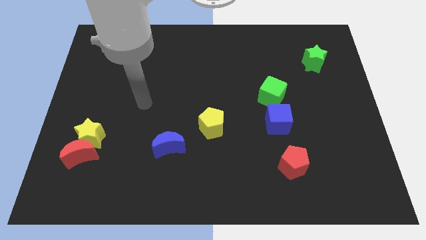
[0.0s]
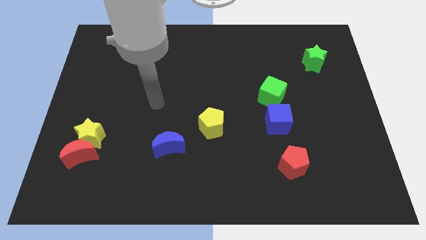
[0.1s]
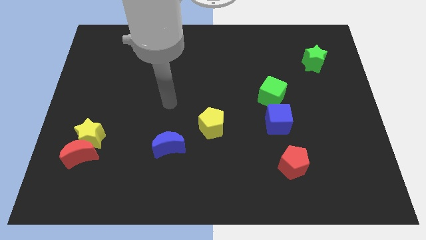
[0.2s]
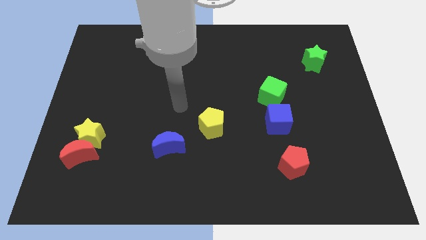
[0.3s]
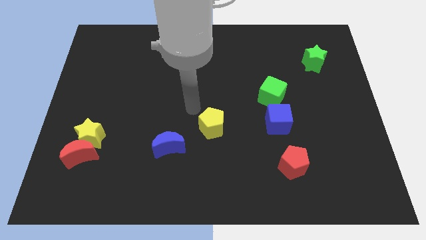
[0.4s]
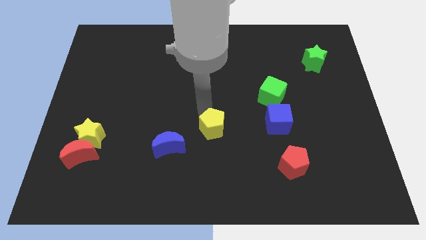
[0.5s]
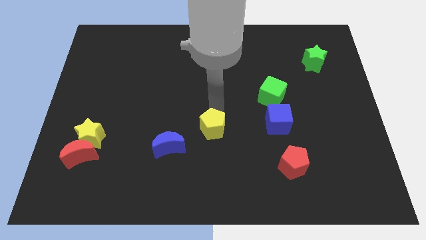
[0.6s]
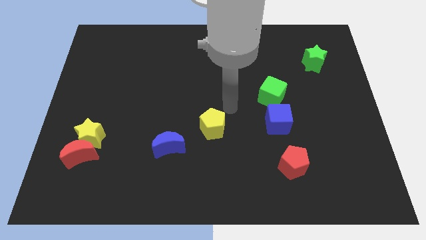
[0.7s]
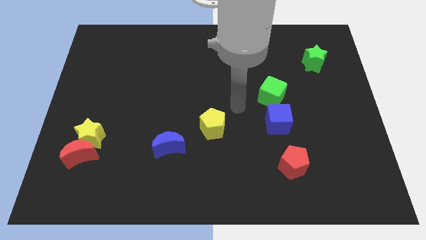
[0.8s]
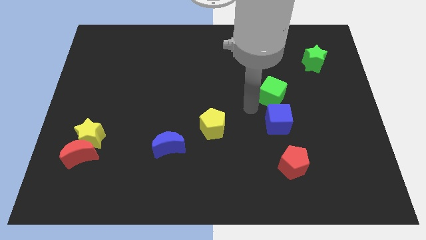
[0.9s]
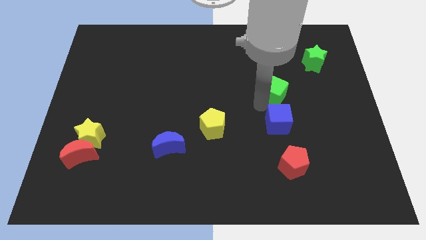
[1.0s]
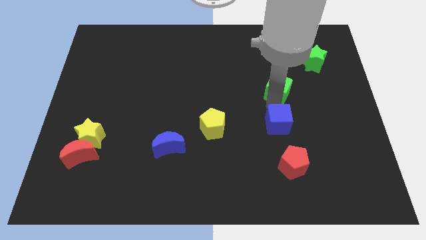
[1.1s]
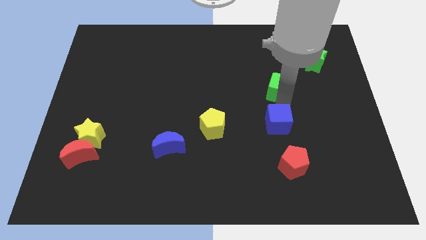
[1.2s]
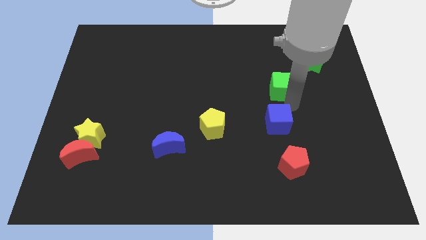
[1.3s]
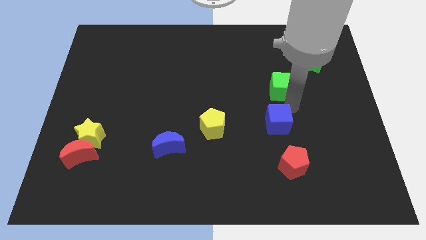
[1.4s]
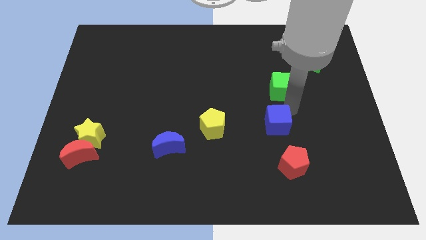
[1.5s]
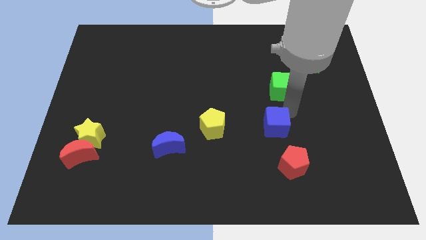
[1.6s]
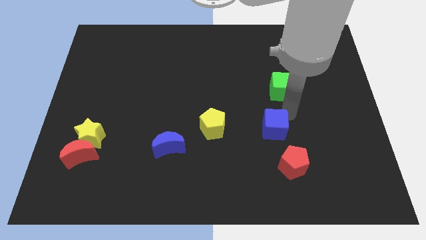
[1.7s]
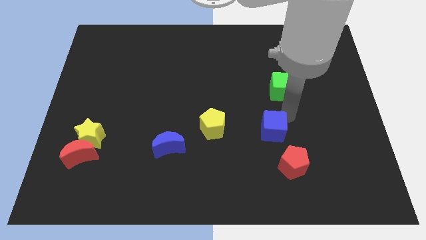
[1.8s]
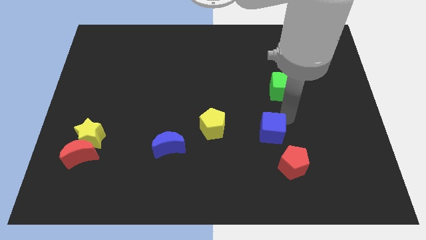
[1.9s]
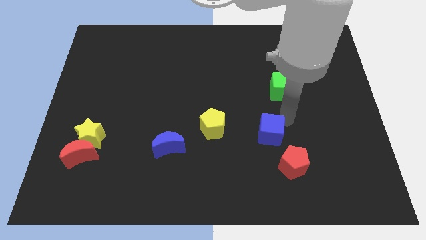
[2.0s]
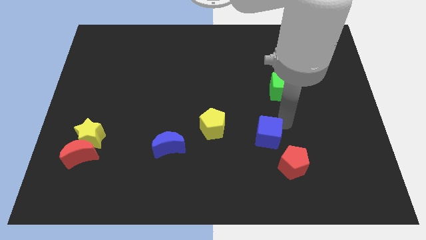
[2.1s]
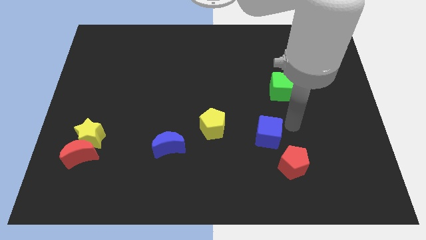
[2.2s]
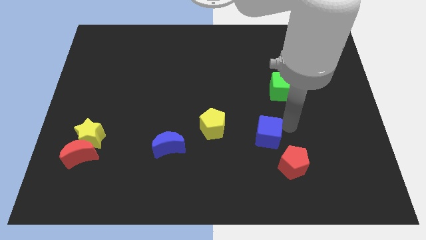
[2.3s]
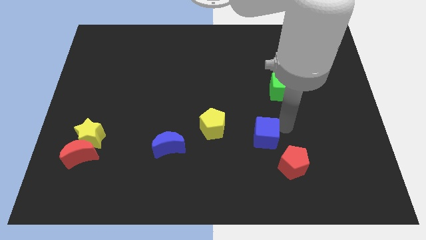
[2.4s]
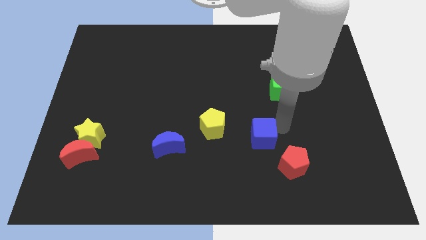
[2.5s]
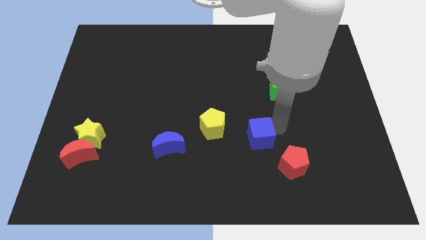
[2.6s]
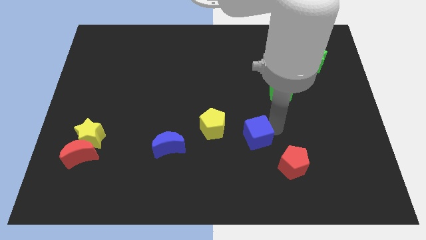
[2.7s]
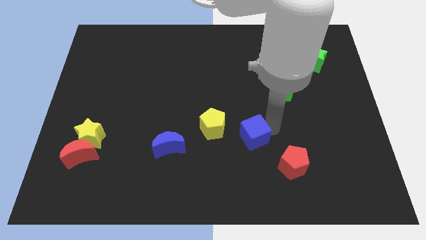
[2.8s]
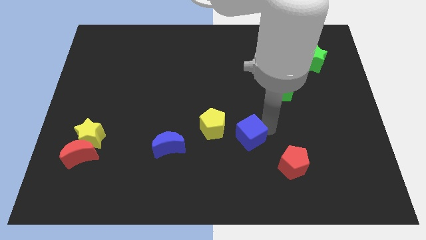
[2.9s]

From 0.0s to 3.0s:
slide the blue cube diagonally downwards and to the left a bit

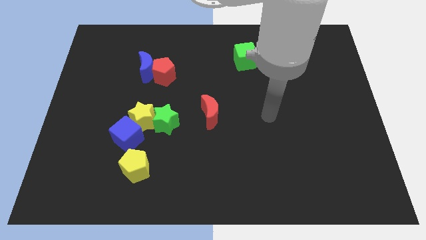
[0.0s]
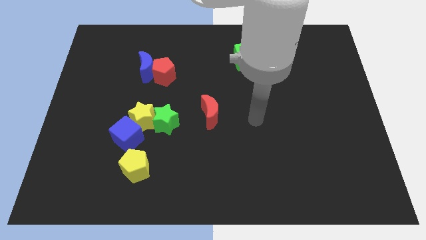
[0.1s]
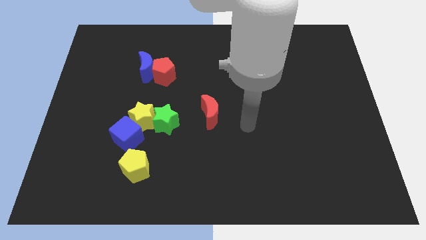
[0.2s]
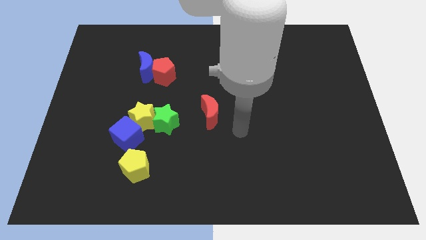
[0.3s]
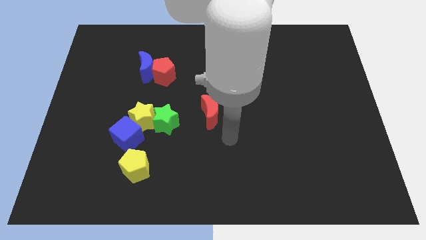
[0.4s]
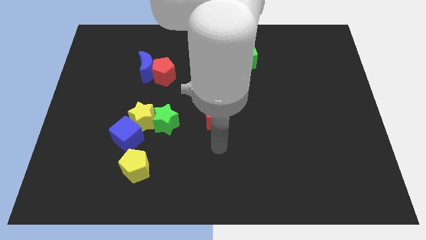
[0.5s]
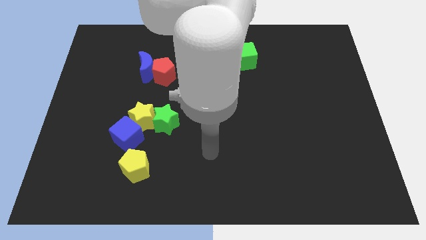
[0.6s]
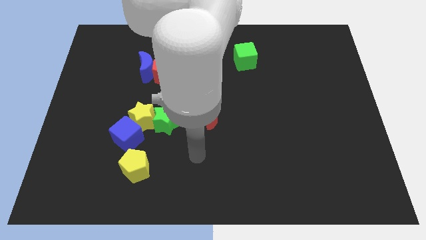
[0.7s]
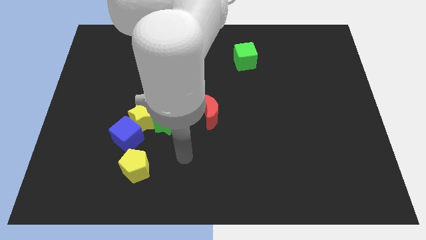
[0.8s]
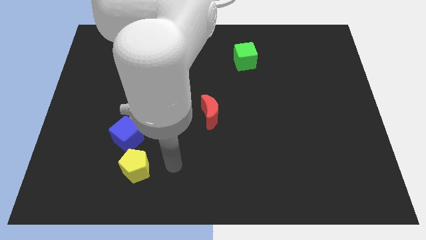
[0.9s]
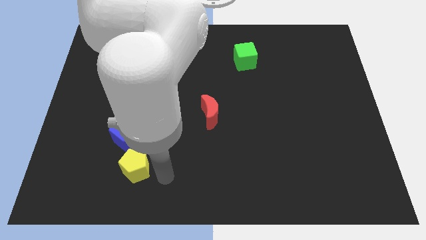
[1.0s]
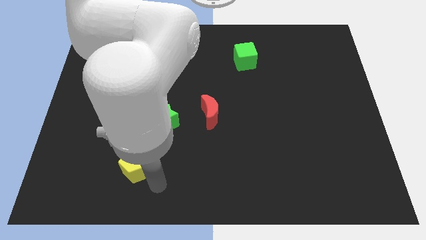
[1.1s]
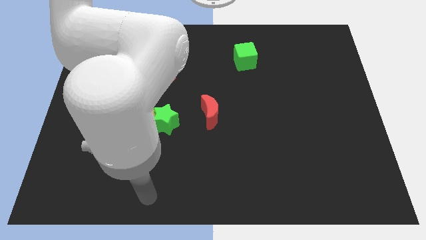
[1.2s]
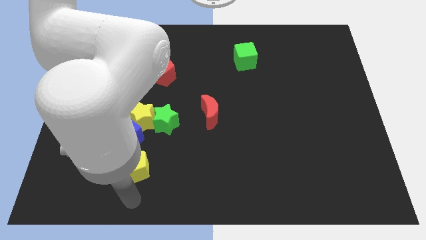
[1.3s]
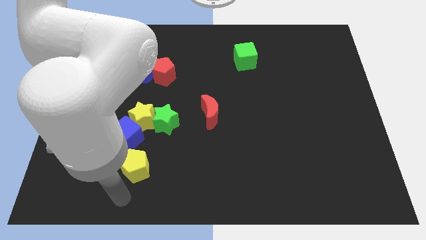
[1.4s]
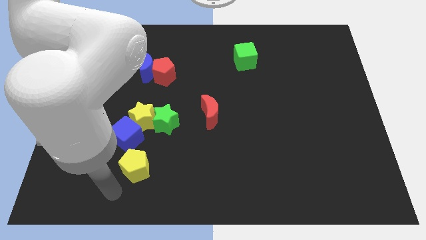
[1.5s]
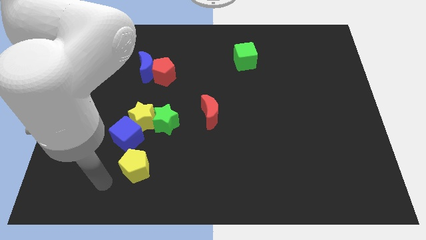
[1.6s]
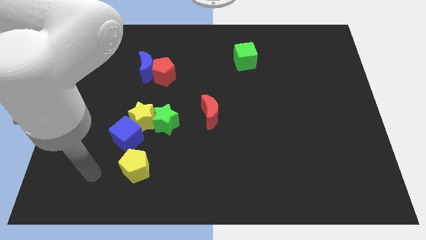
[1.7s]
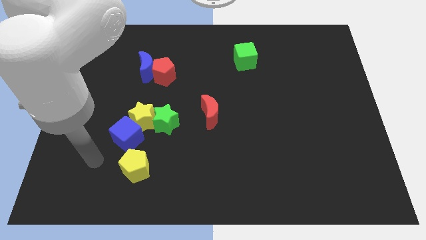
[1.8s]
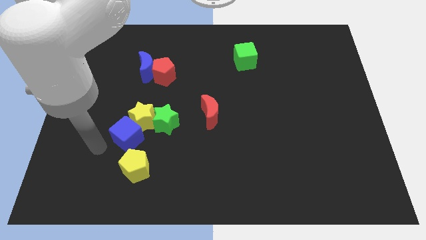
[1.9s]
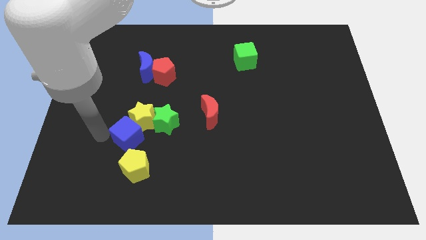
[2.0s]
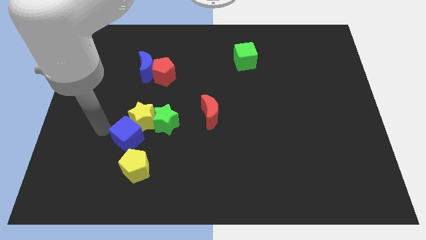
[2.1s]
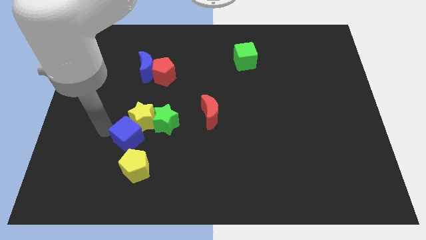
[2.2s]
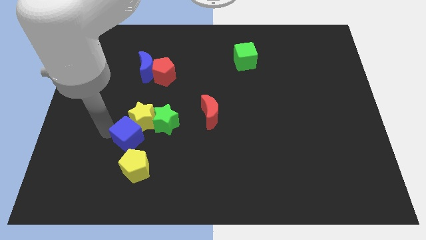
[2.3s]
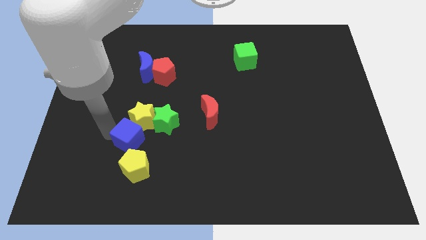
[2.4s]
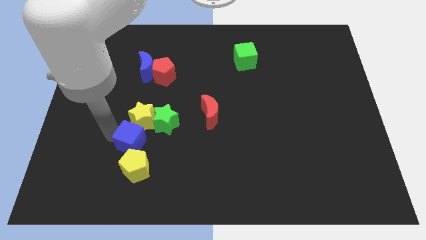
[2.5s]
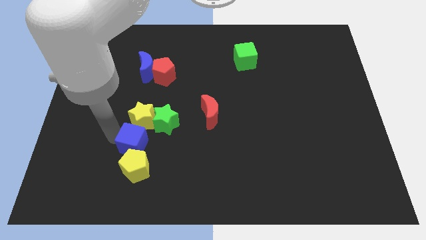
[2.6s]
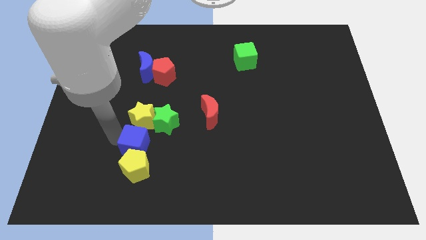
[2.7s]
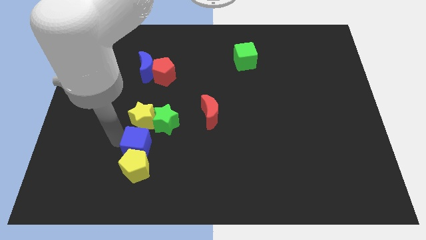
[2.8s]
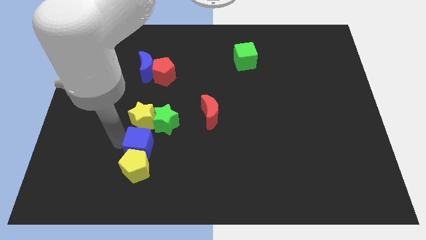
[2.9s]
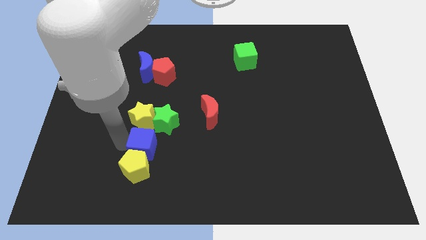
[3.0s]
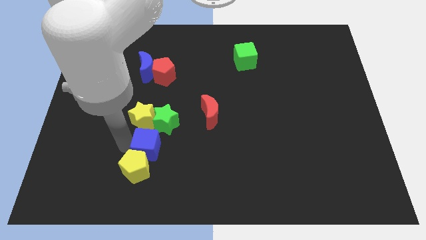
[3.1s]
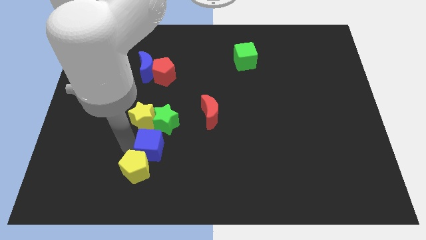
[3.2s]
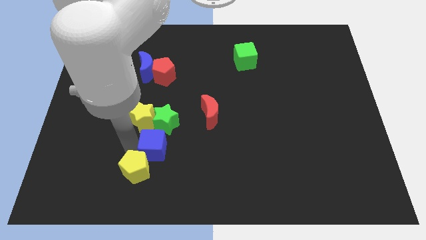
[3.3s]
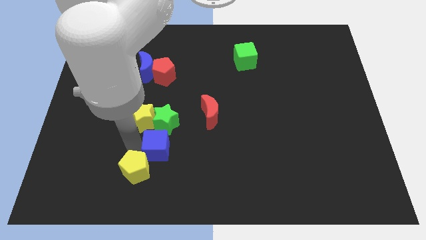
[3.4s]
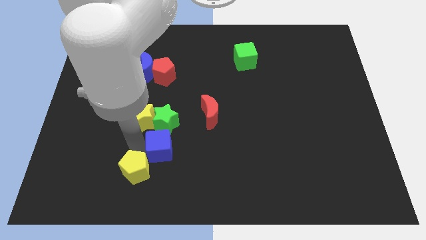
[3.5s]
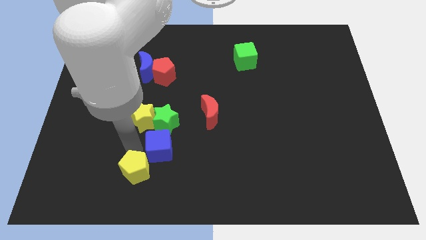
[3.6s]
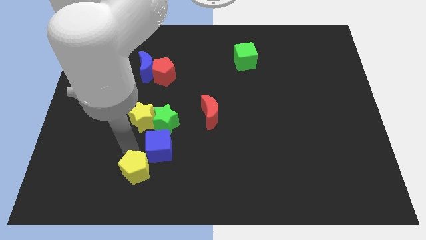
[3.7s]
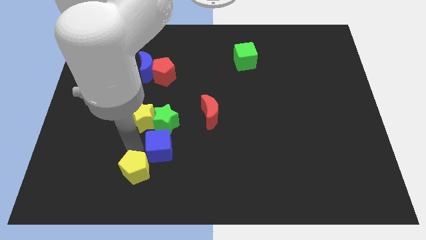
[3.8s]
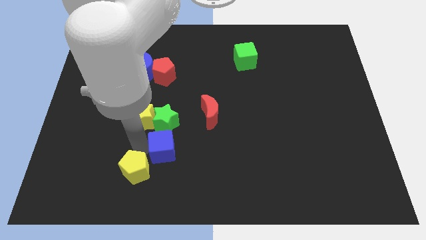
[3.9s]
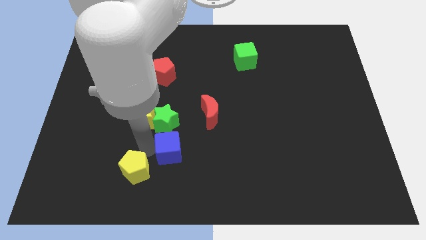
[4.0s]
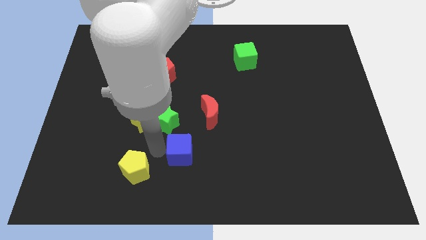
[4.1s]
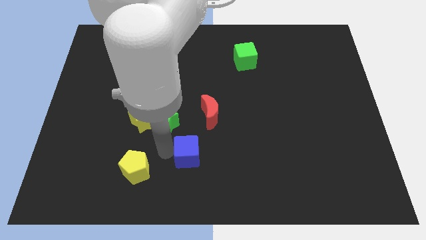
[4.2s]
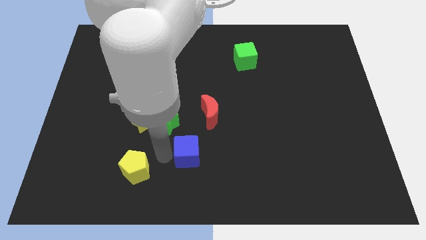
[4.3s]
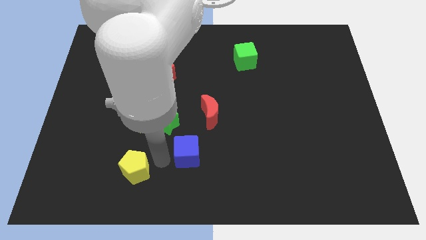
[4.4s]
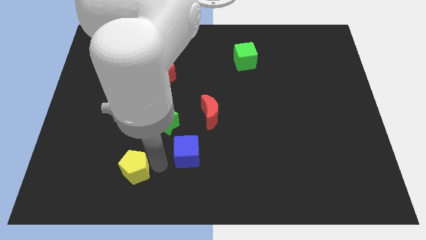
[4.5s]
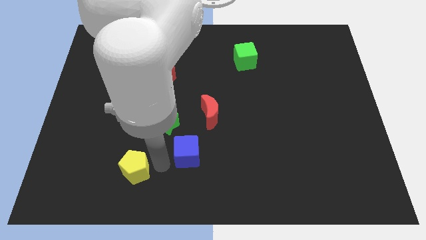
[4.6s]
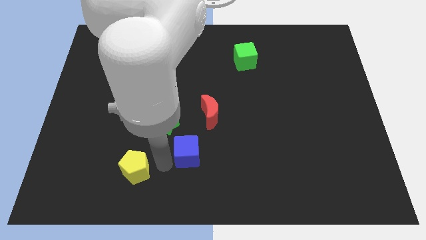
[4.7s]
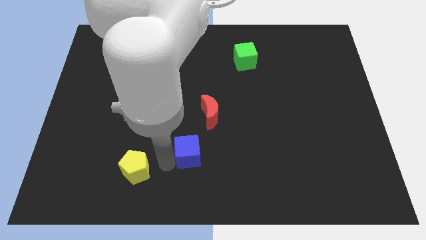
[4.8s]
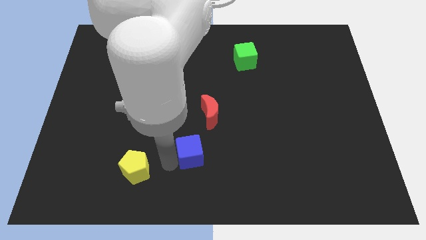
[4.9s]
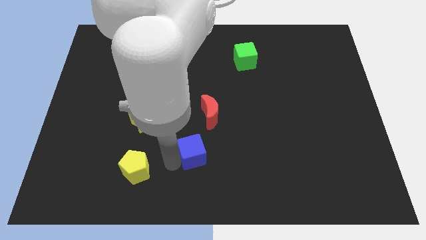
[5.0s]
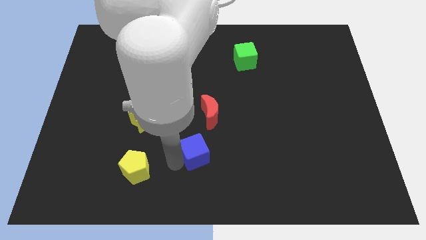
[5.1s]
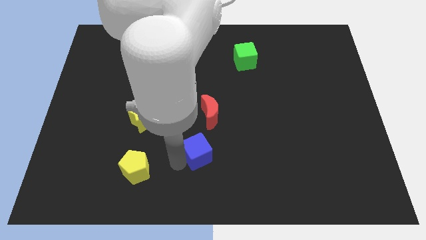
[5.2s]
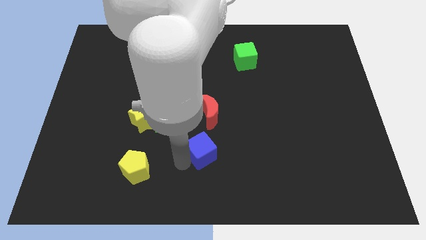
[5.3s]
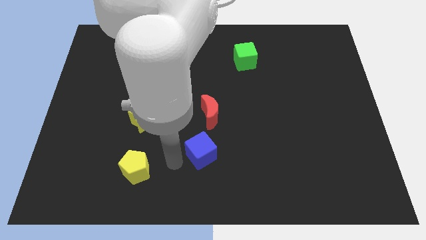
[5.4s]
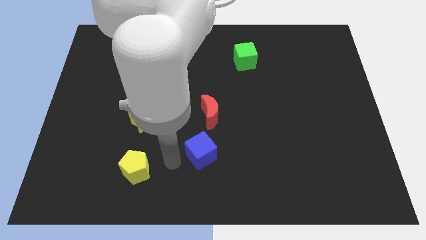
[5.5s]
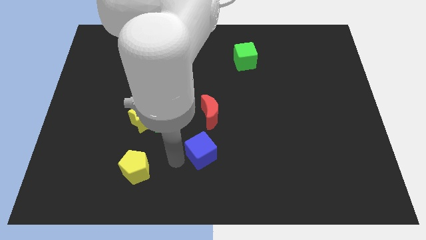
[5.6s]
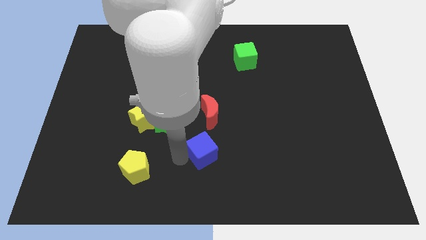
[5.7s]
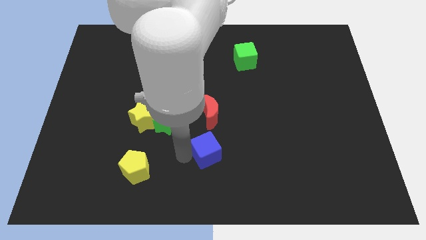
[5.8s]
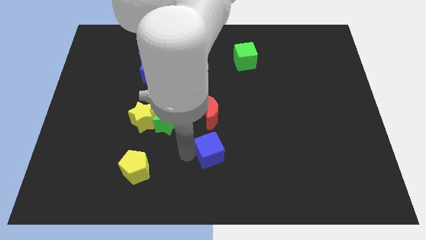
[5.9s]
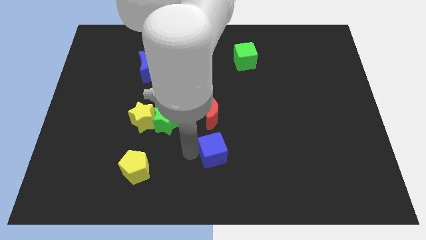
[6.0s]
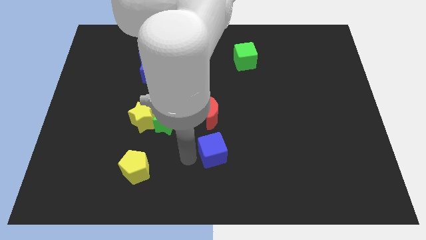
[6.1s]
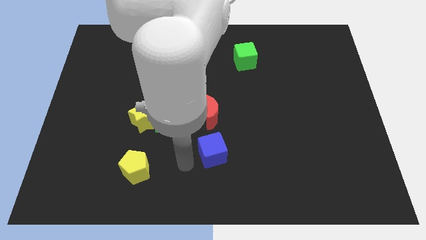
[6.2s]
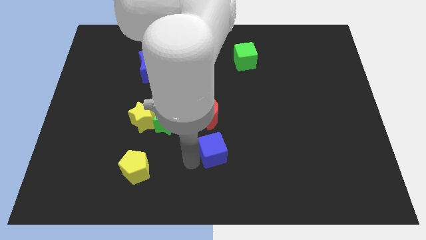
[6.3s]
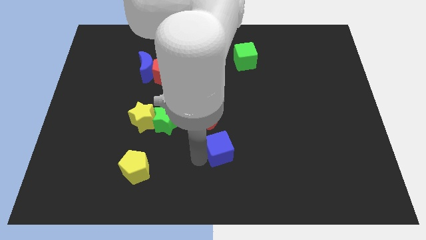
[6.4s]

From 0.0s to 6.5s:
slide the blue cube right
